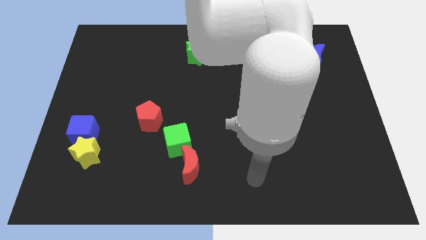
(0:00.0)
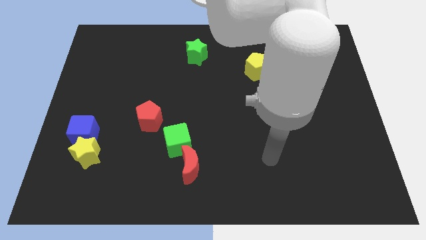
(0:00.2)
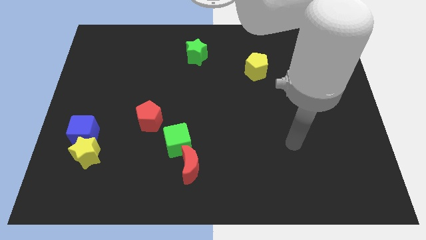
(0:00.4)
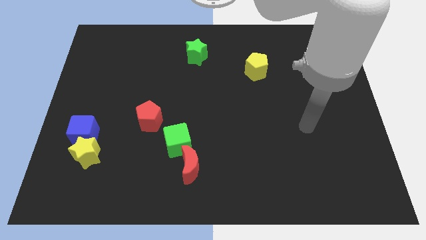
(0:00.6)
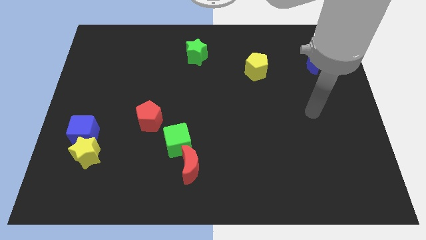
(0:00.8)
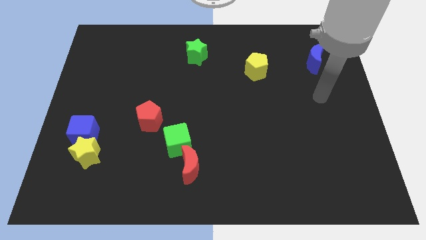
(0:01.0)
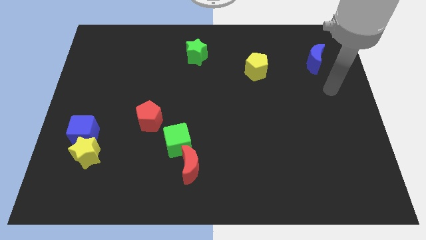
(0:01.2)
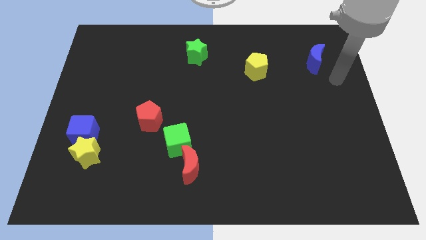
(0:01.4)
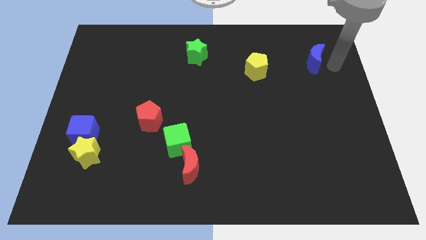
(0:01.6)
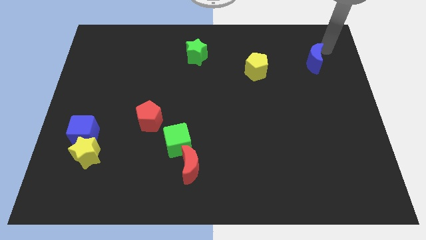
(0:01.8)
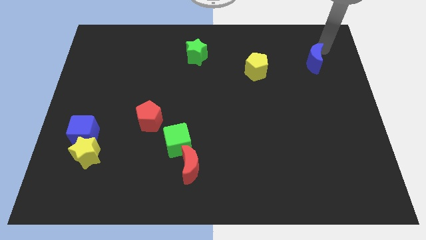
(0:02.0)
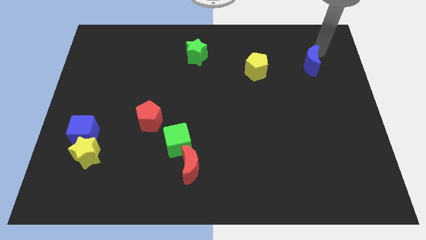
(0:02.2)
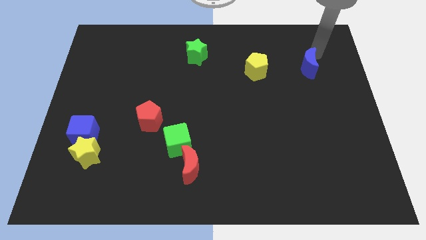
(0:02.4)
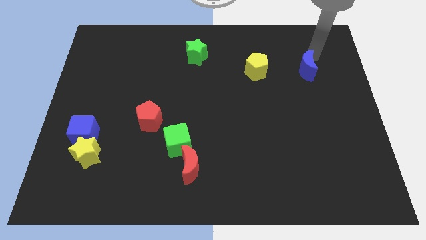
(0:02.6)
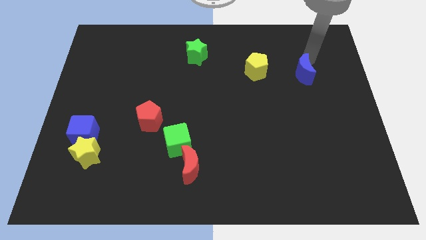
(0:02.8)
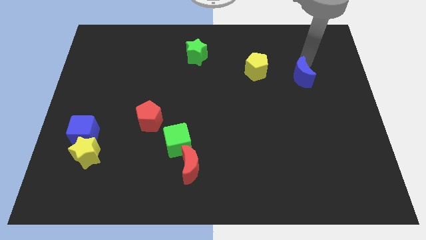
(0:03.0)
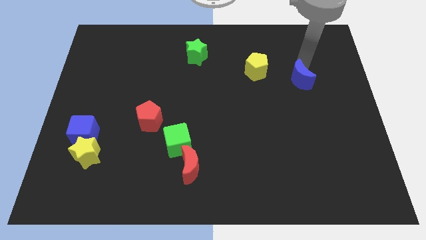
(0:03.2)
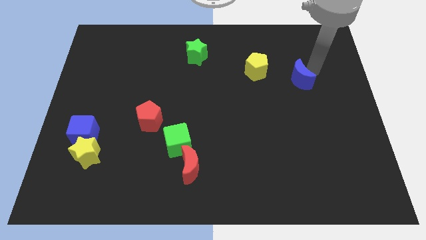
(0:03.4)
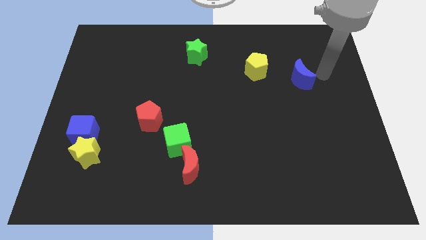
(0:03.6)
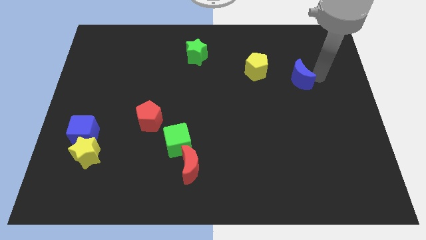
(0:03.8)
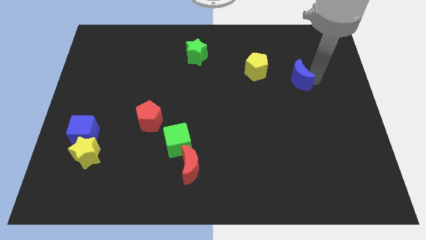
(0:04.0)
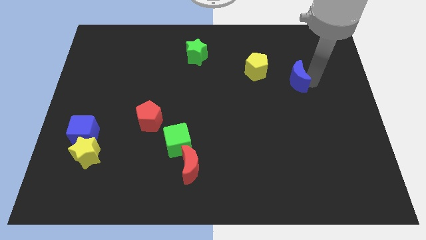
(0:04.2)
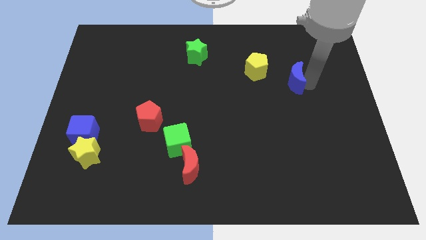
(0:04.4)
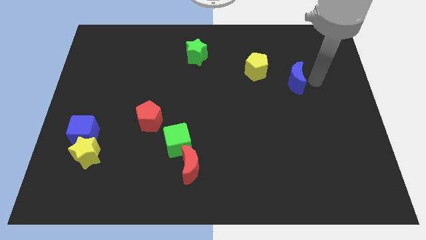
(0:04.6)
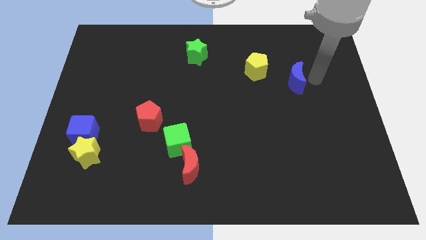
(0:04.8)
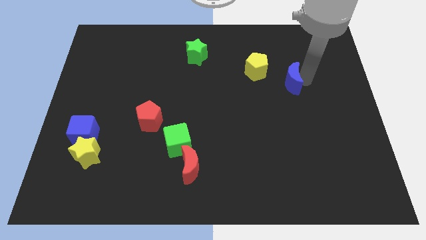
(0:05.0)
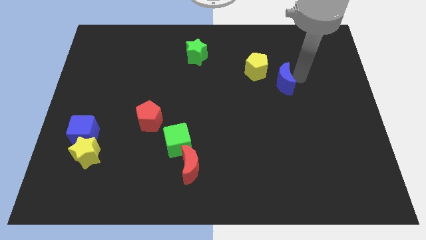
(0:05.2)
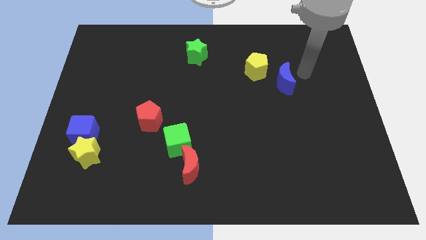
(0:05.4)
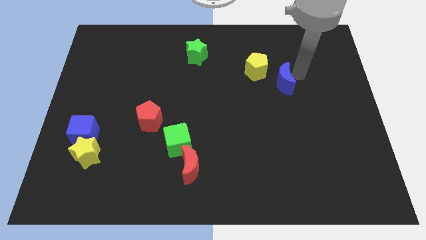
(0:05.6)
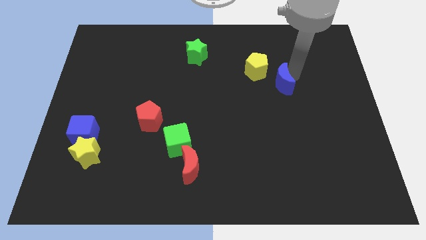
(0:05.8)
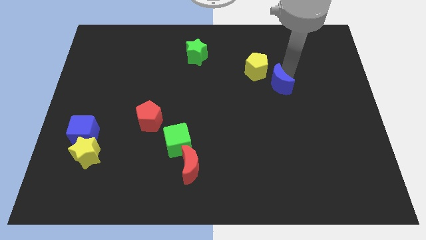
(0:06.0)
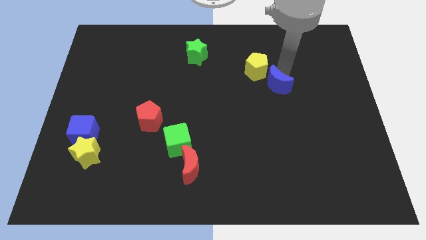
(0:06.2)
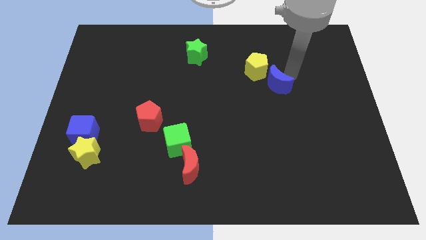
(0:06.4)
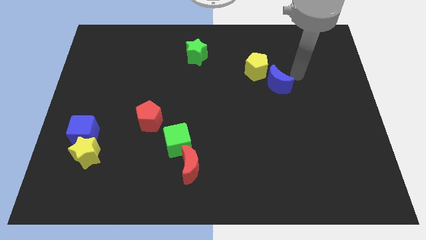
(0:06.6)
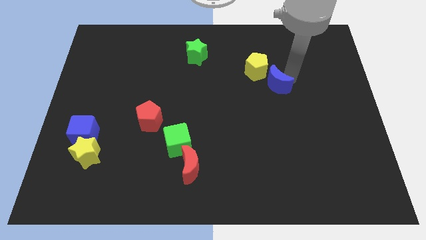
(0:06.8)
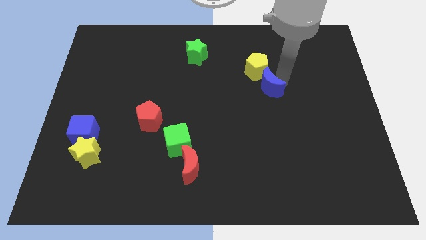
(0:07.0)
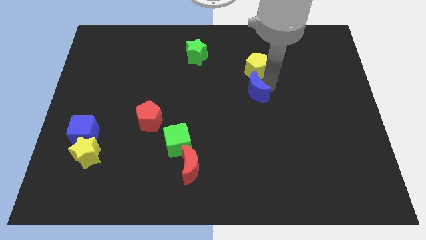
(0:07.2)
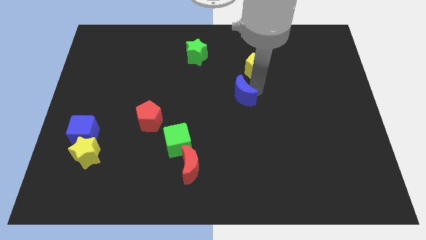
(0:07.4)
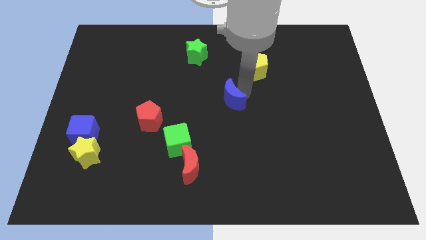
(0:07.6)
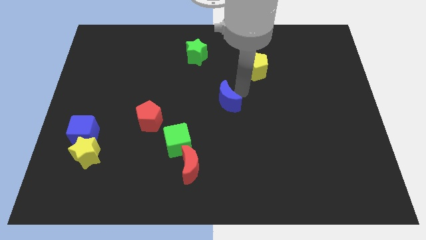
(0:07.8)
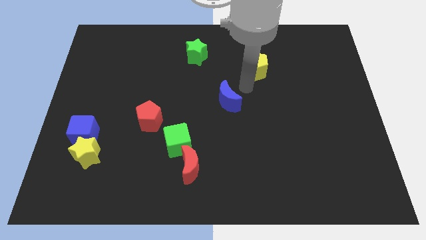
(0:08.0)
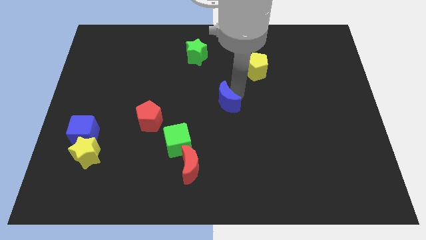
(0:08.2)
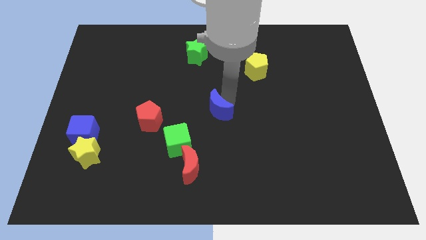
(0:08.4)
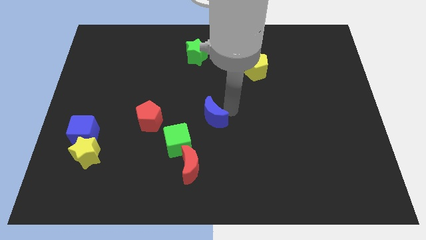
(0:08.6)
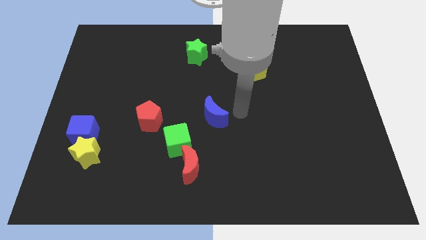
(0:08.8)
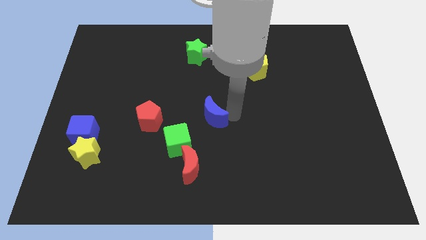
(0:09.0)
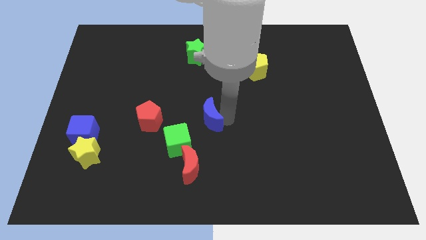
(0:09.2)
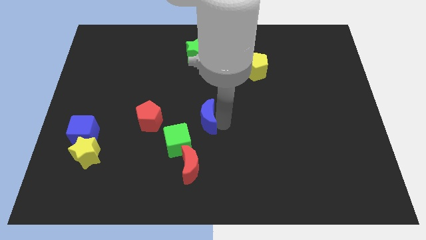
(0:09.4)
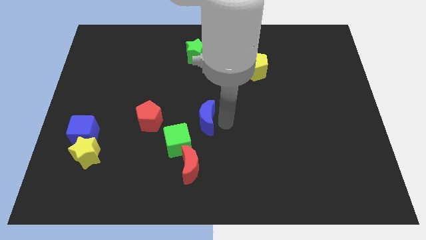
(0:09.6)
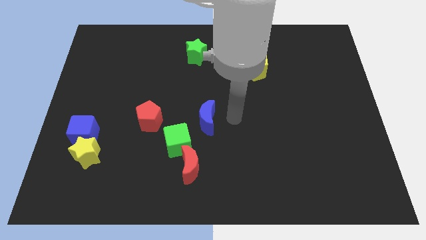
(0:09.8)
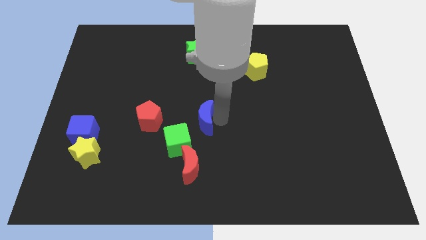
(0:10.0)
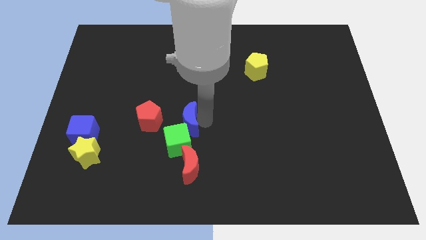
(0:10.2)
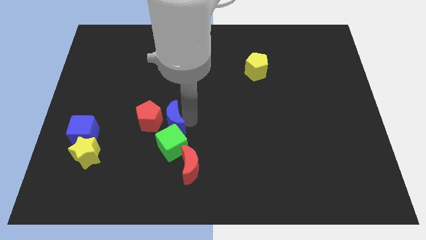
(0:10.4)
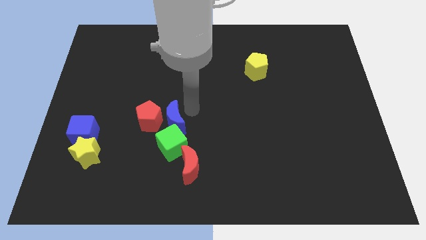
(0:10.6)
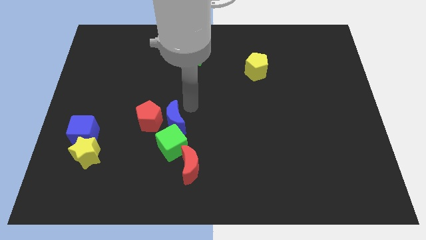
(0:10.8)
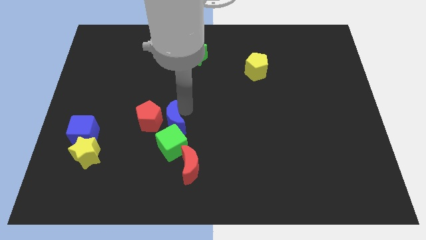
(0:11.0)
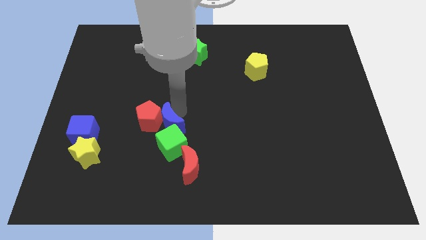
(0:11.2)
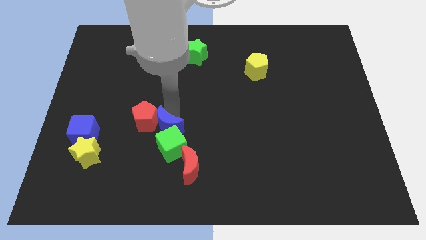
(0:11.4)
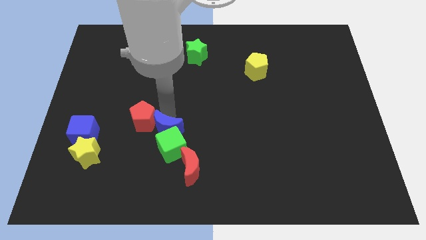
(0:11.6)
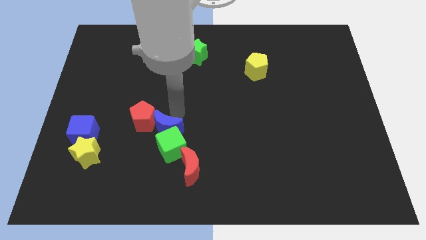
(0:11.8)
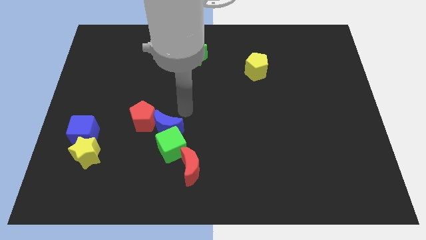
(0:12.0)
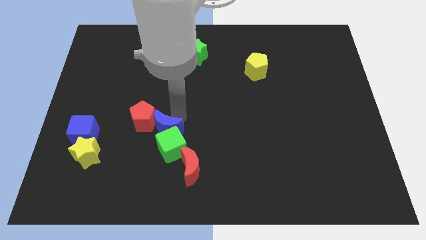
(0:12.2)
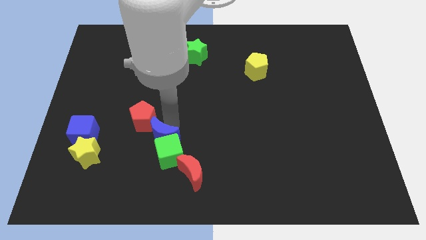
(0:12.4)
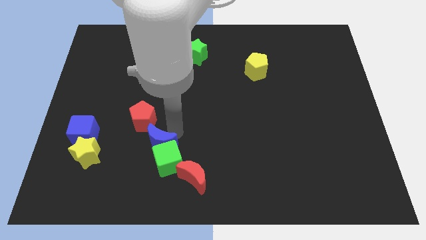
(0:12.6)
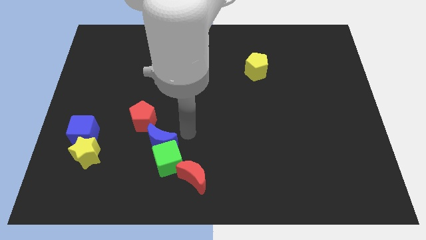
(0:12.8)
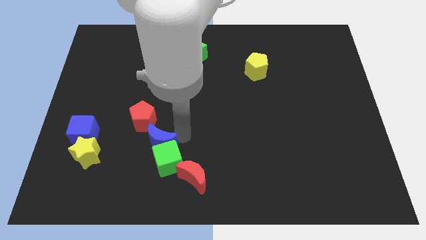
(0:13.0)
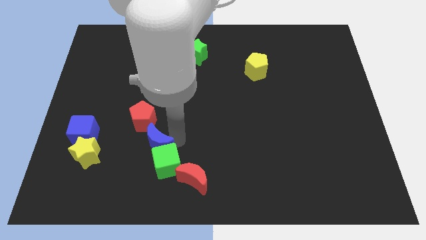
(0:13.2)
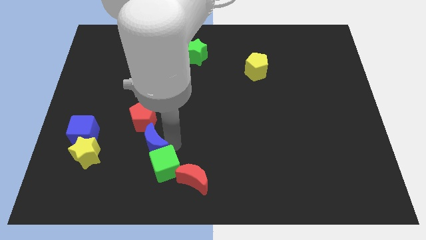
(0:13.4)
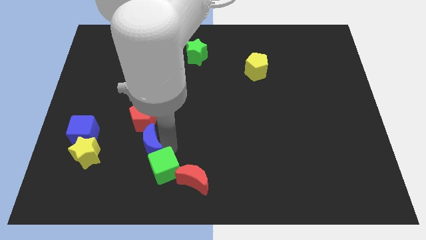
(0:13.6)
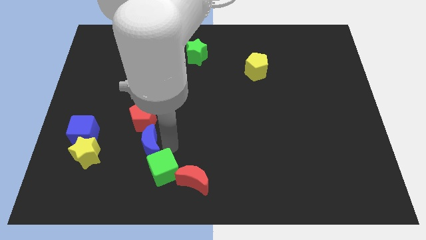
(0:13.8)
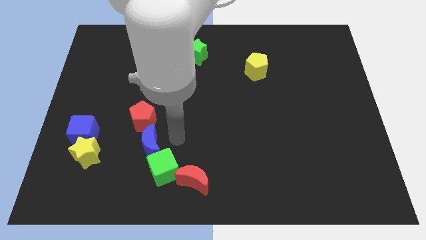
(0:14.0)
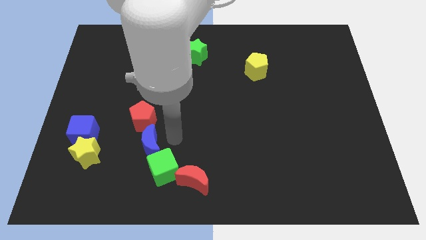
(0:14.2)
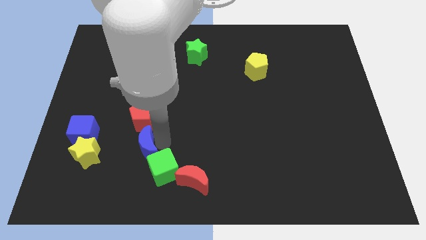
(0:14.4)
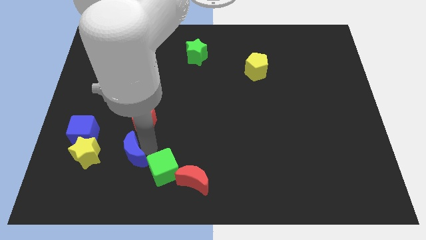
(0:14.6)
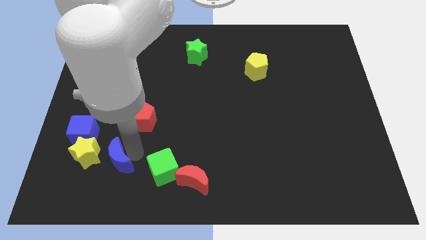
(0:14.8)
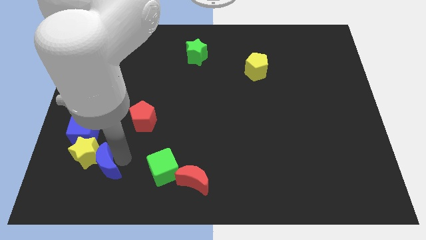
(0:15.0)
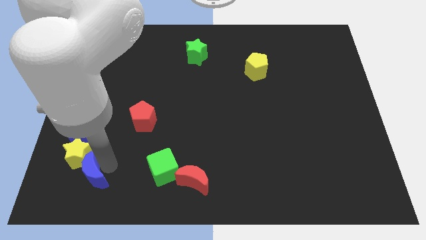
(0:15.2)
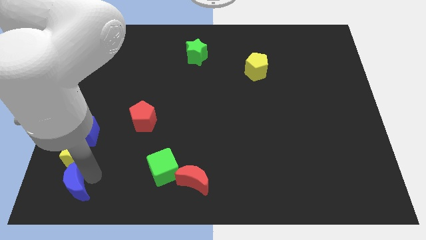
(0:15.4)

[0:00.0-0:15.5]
move the blue moon to the lower left corner

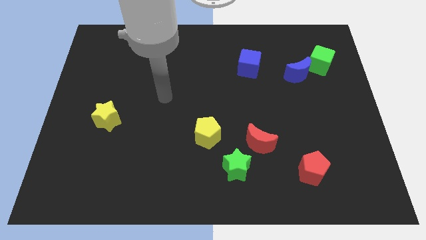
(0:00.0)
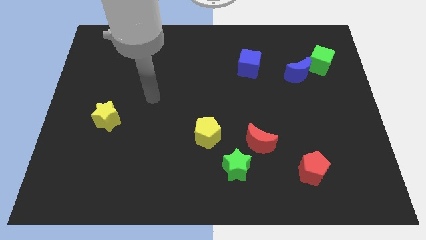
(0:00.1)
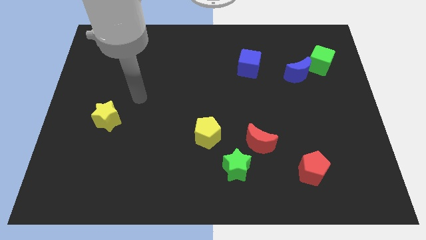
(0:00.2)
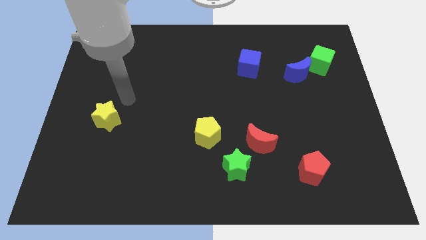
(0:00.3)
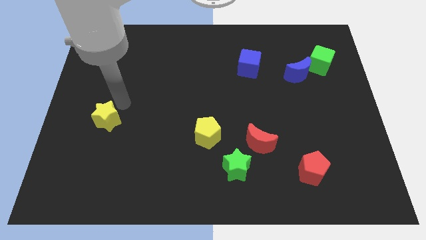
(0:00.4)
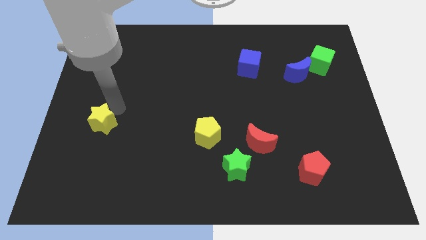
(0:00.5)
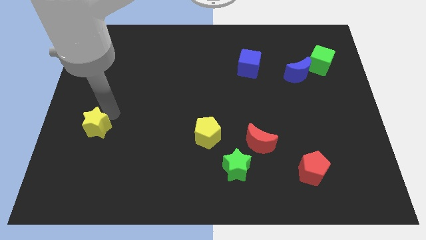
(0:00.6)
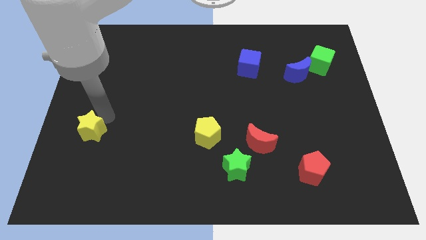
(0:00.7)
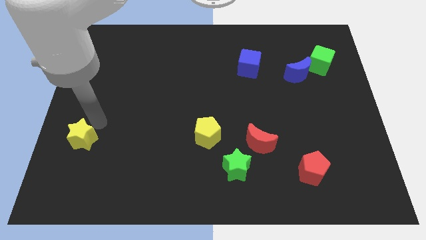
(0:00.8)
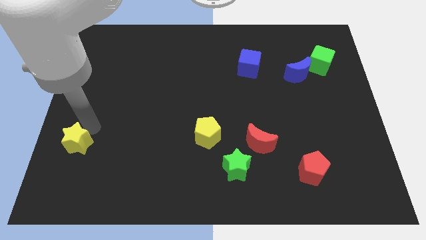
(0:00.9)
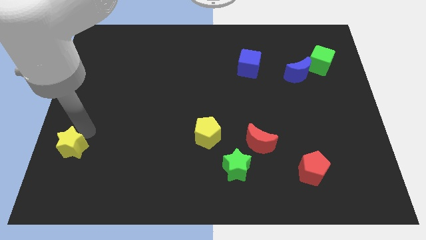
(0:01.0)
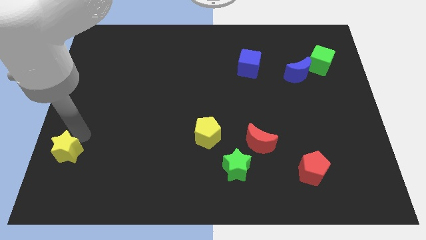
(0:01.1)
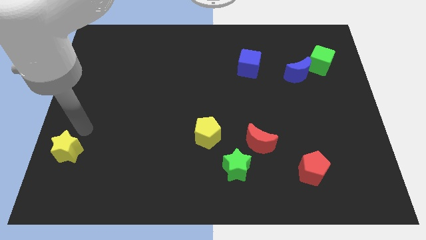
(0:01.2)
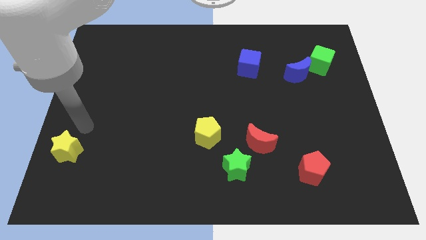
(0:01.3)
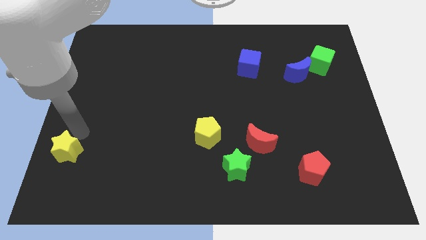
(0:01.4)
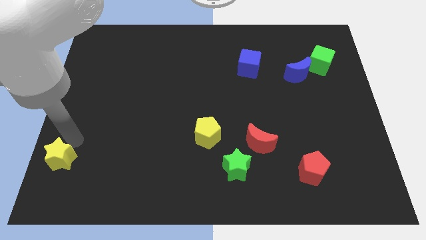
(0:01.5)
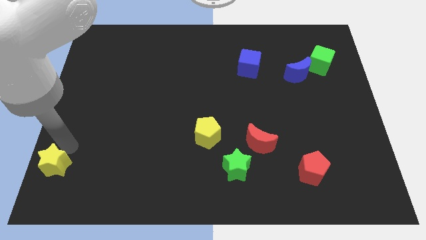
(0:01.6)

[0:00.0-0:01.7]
slide the yellow star to the lower left corner
